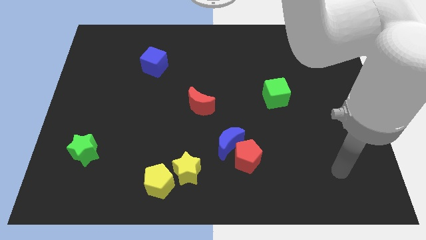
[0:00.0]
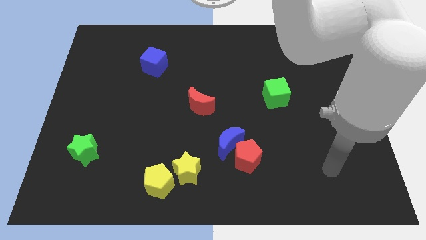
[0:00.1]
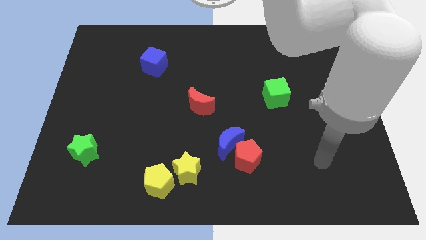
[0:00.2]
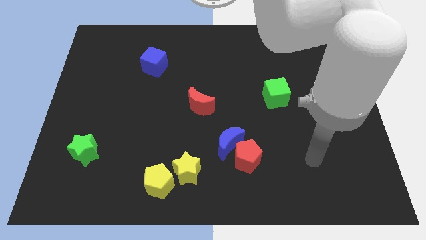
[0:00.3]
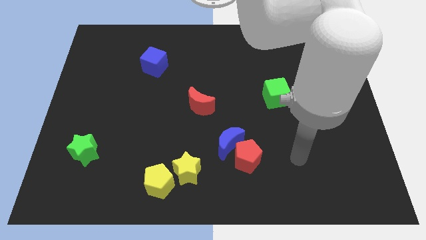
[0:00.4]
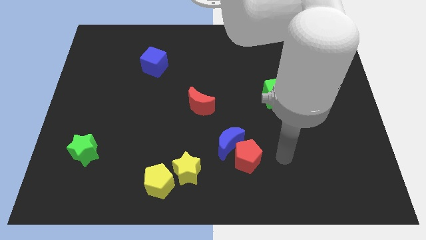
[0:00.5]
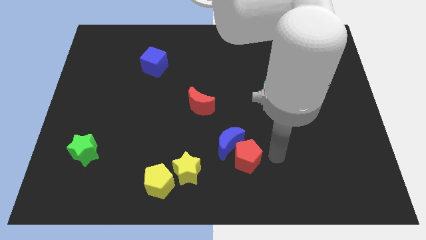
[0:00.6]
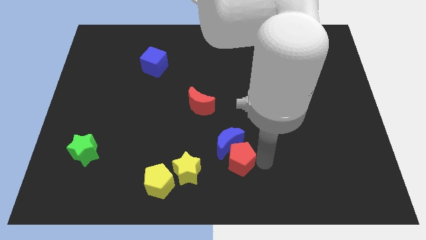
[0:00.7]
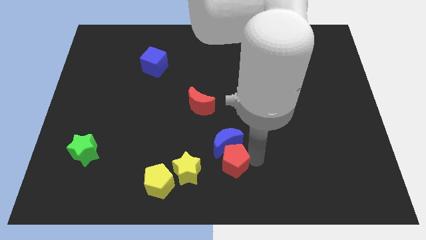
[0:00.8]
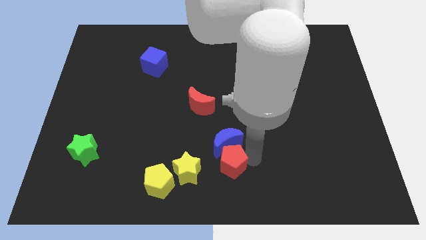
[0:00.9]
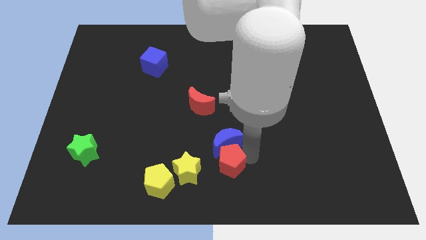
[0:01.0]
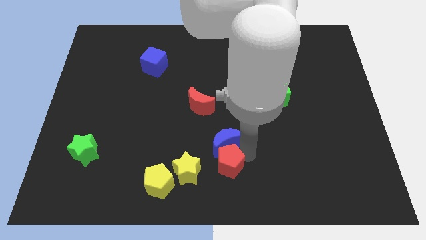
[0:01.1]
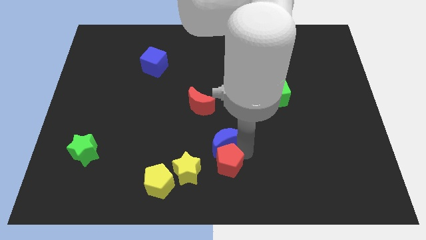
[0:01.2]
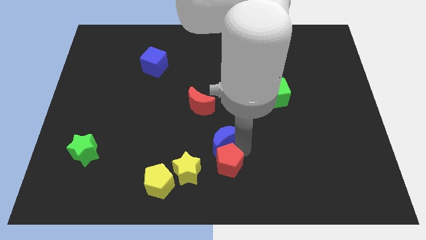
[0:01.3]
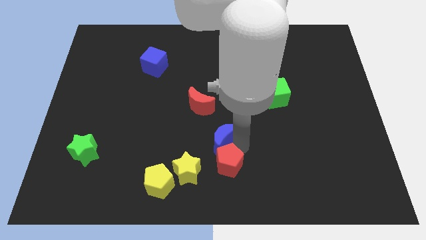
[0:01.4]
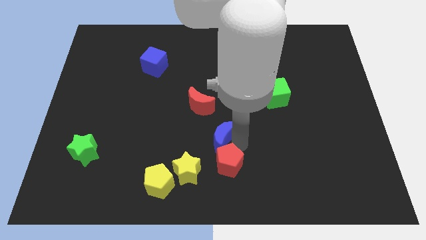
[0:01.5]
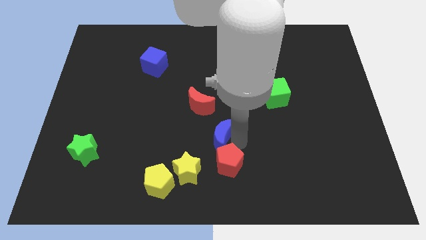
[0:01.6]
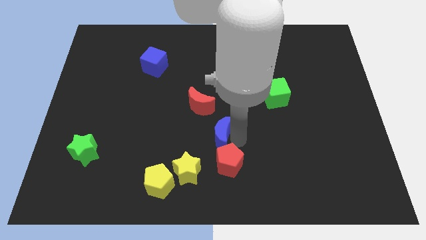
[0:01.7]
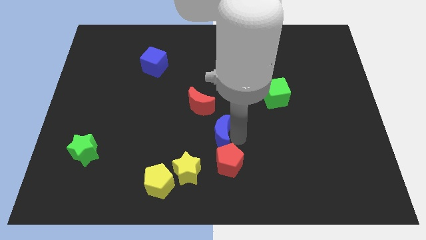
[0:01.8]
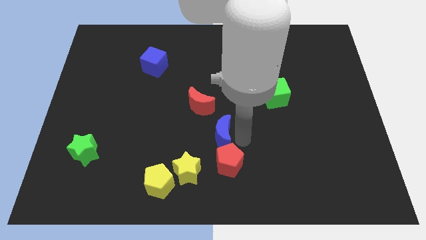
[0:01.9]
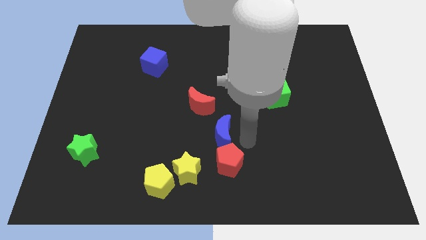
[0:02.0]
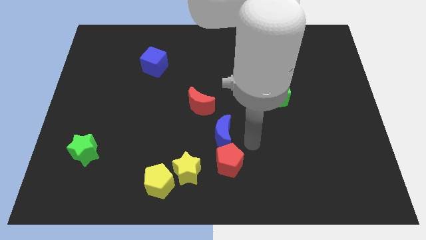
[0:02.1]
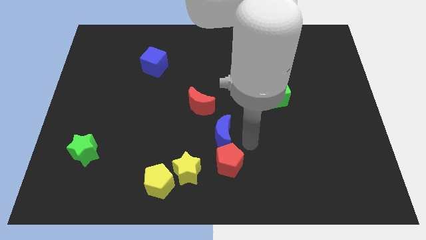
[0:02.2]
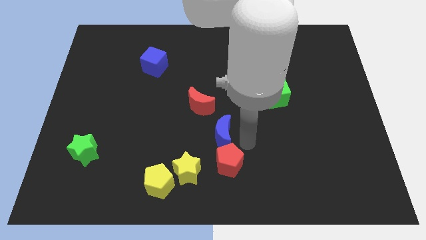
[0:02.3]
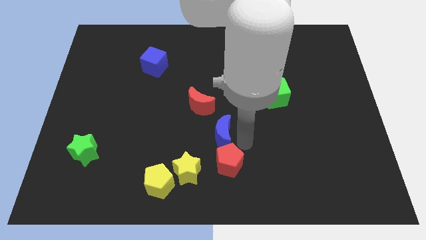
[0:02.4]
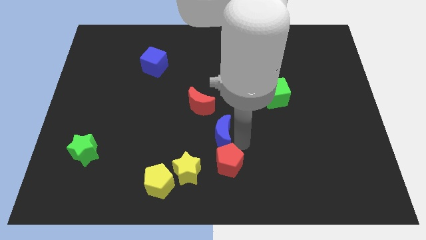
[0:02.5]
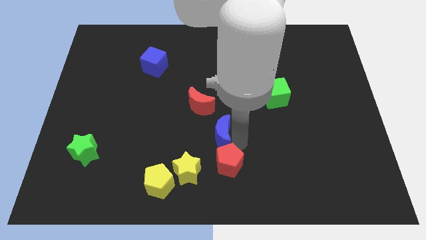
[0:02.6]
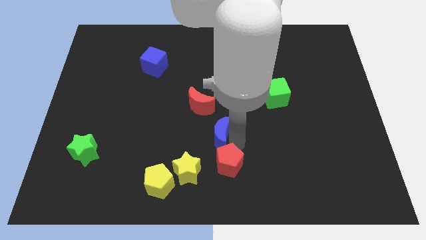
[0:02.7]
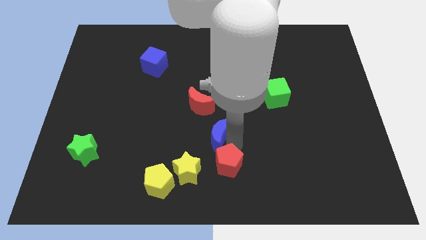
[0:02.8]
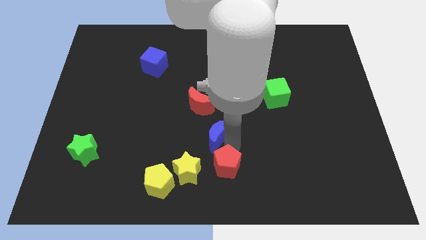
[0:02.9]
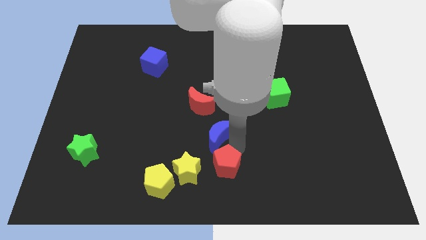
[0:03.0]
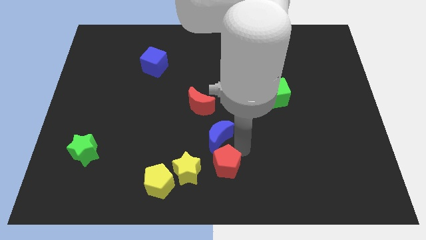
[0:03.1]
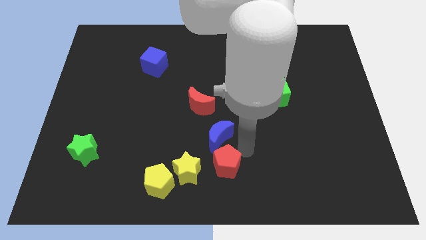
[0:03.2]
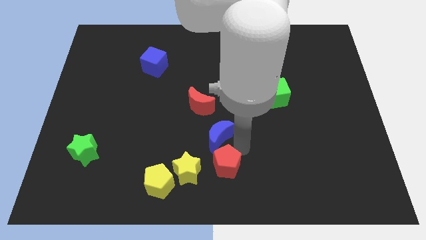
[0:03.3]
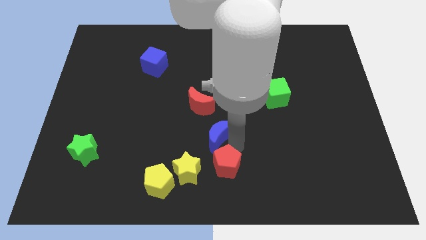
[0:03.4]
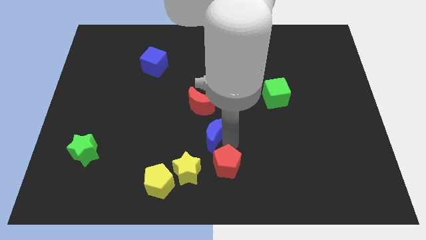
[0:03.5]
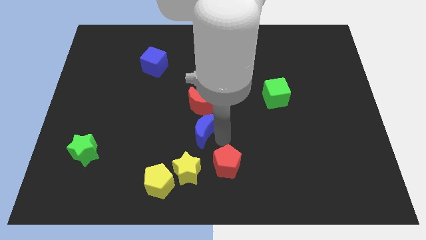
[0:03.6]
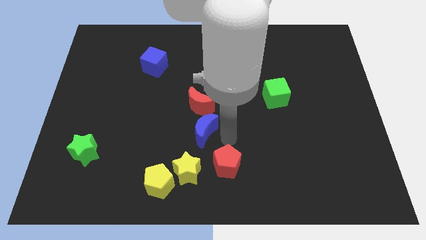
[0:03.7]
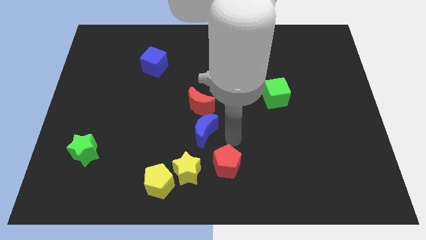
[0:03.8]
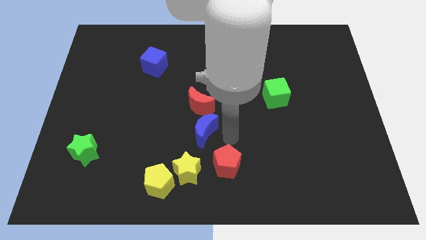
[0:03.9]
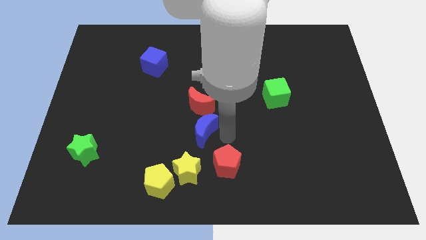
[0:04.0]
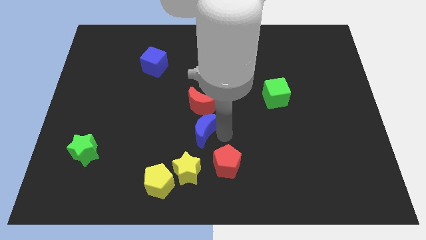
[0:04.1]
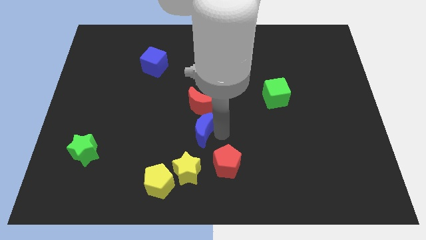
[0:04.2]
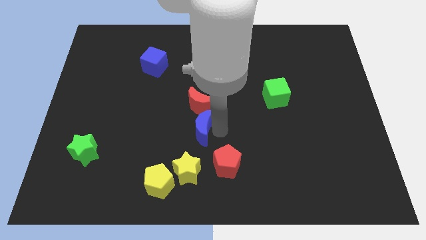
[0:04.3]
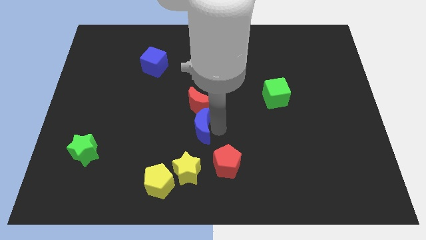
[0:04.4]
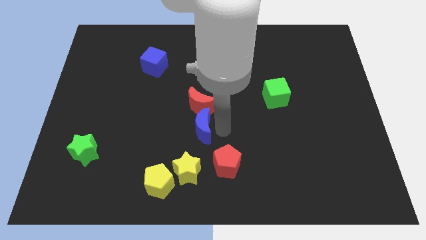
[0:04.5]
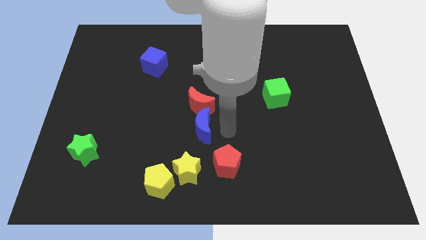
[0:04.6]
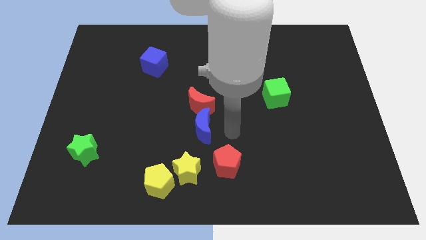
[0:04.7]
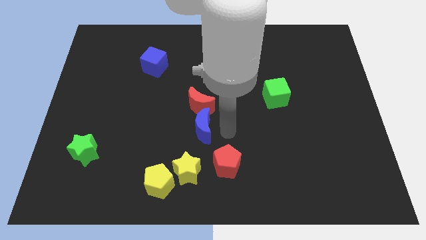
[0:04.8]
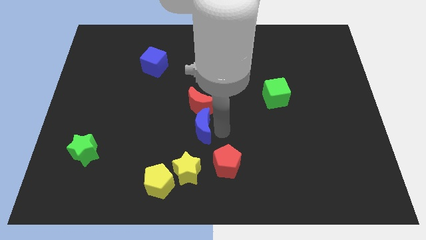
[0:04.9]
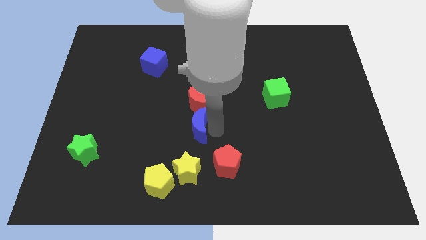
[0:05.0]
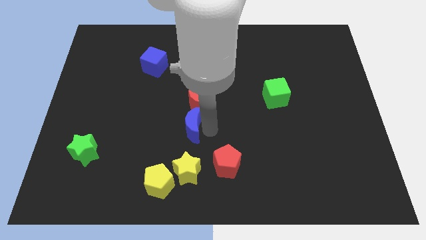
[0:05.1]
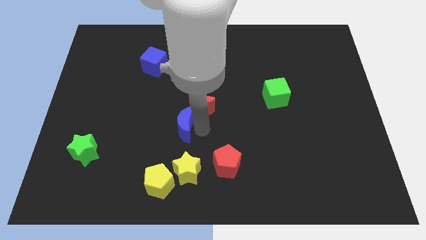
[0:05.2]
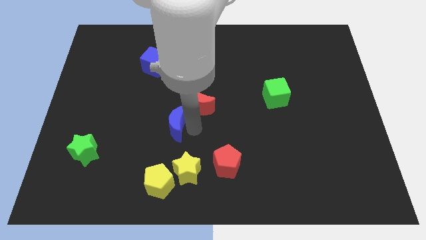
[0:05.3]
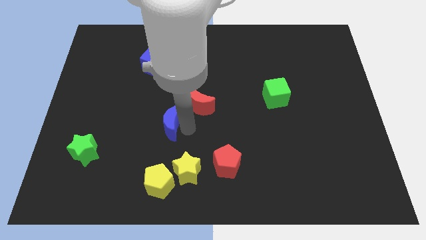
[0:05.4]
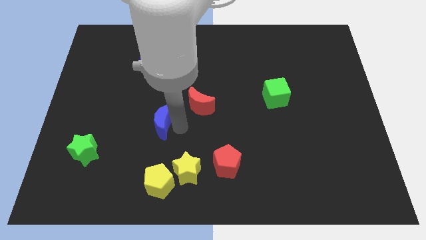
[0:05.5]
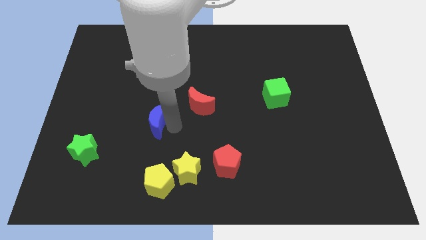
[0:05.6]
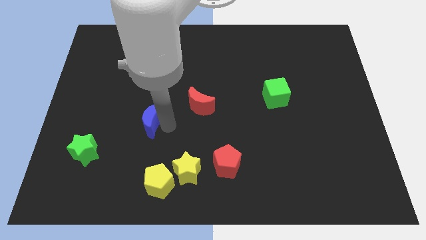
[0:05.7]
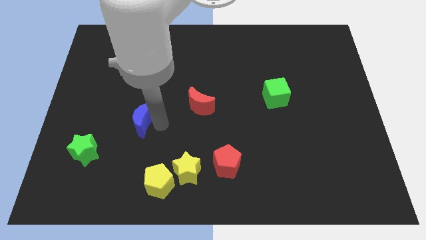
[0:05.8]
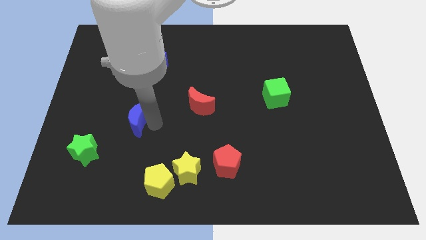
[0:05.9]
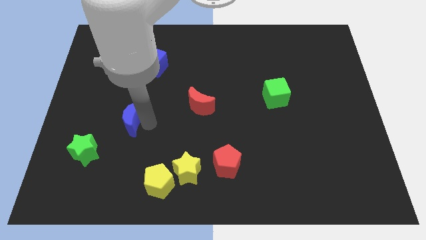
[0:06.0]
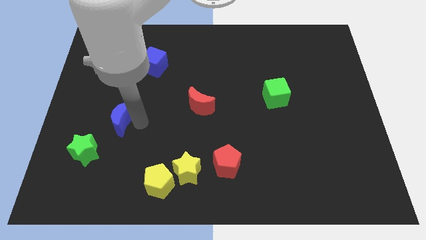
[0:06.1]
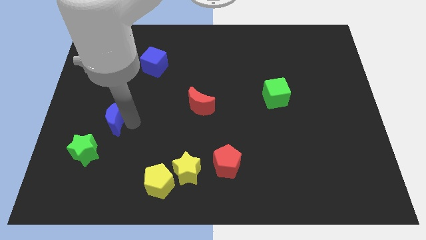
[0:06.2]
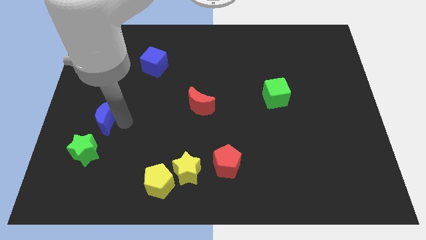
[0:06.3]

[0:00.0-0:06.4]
put the blue moon to the top side of the green star
